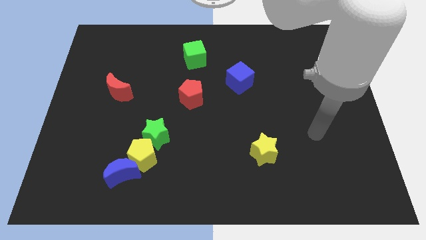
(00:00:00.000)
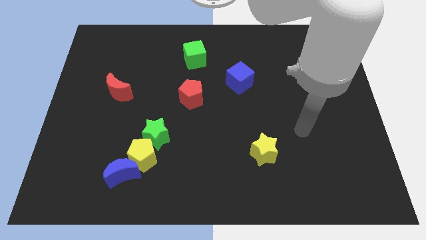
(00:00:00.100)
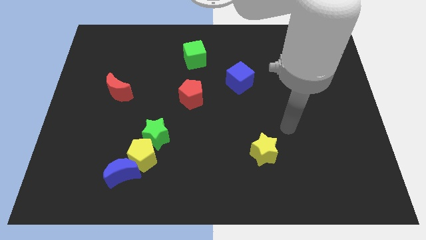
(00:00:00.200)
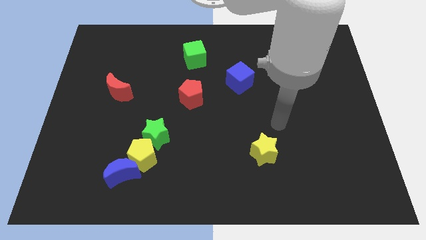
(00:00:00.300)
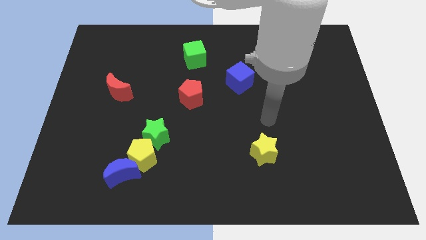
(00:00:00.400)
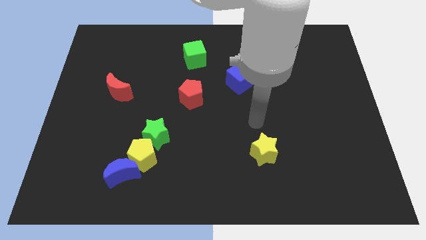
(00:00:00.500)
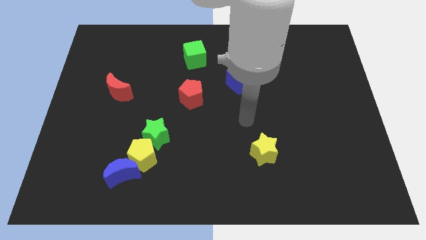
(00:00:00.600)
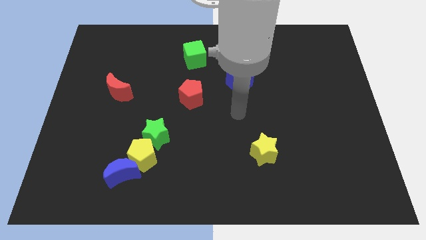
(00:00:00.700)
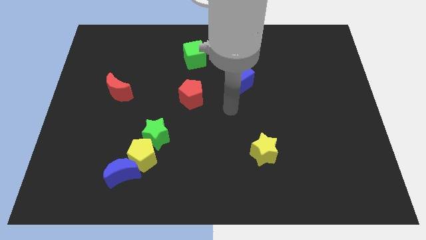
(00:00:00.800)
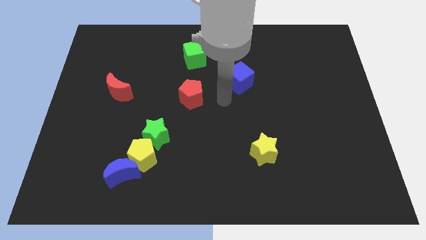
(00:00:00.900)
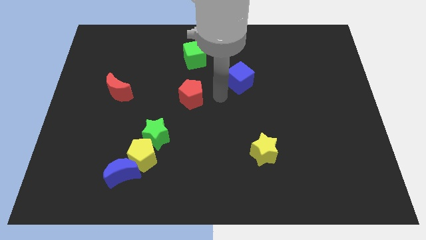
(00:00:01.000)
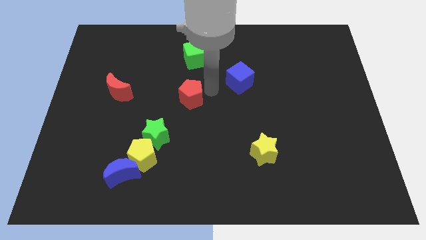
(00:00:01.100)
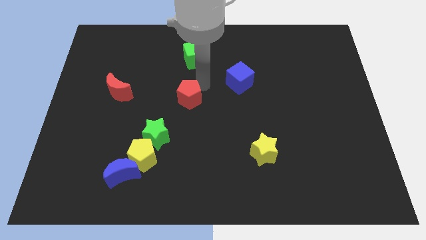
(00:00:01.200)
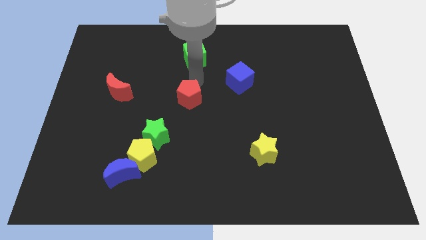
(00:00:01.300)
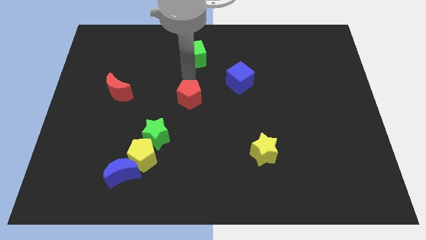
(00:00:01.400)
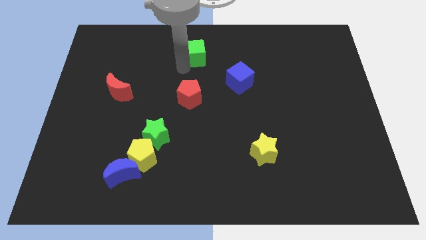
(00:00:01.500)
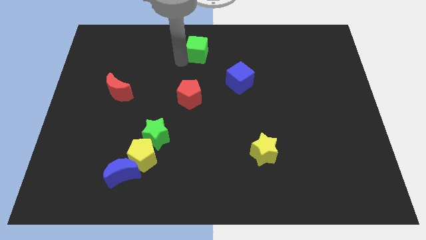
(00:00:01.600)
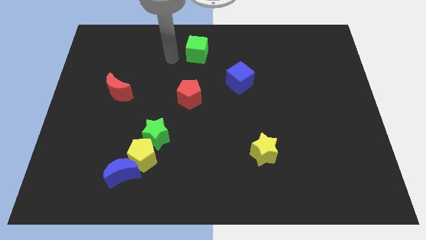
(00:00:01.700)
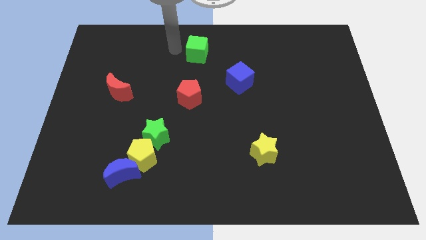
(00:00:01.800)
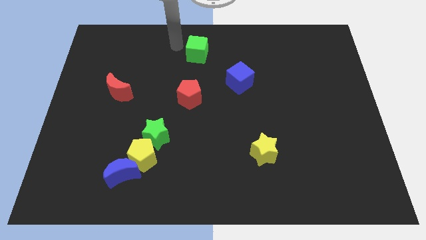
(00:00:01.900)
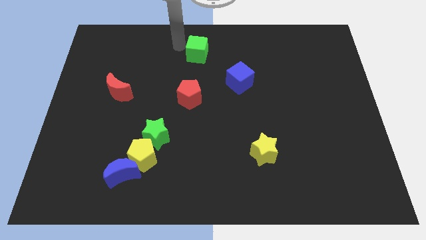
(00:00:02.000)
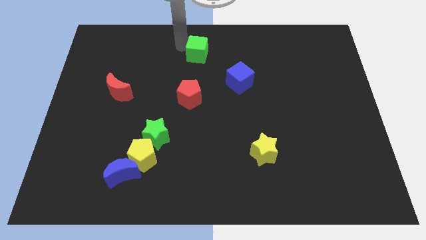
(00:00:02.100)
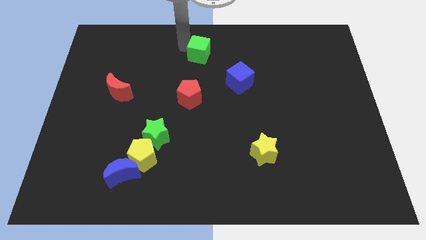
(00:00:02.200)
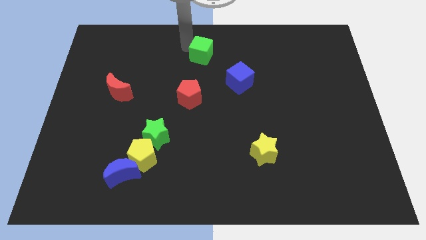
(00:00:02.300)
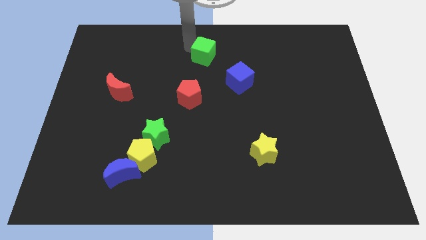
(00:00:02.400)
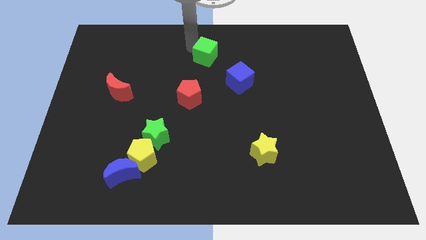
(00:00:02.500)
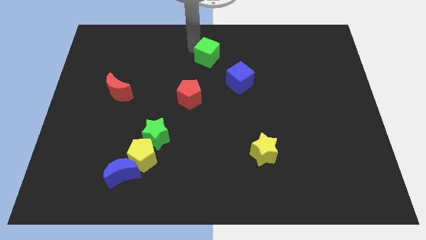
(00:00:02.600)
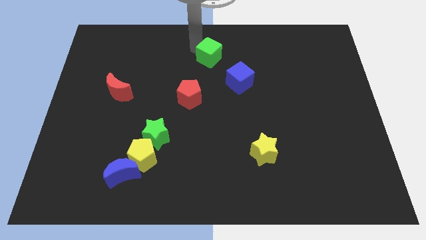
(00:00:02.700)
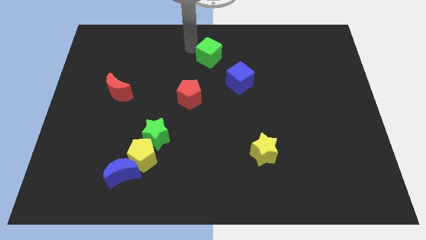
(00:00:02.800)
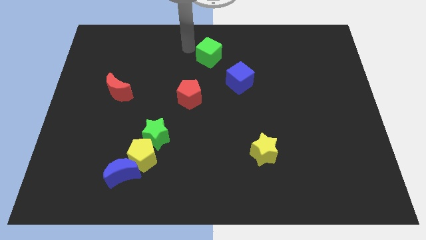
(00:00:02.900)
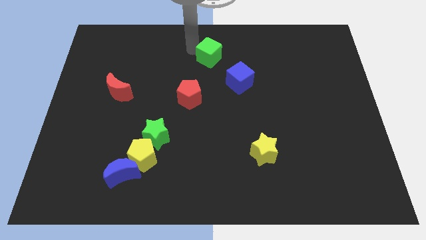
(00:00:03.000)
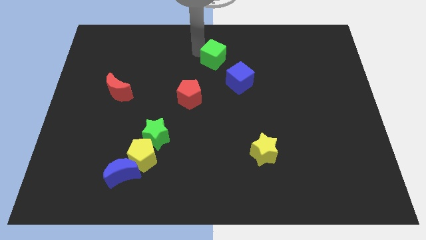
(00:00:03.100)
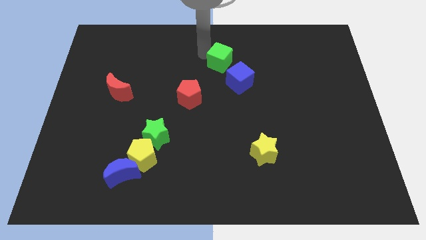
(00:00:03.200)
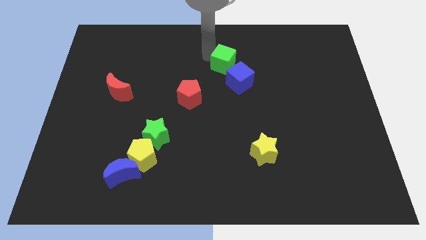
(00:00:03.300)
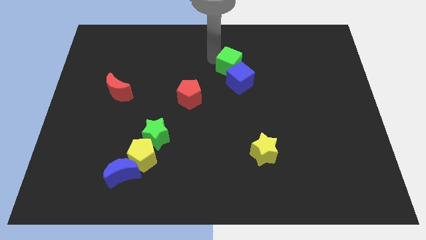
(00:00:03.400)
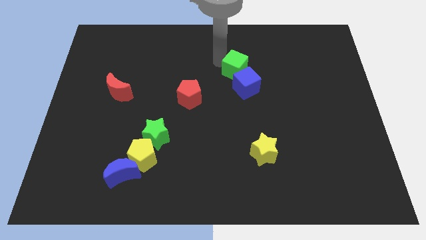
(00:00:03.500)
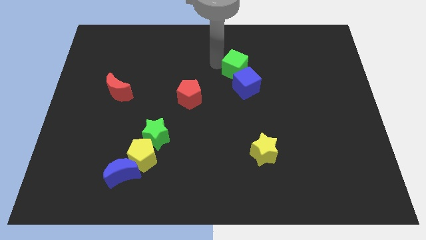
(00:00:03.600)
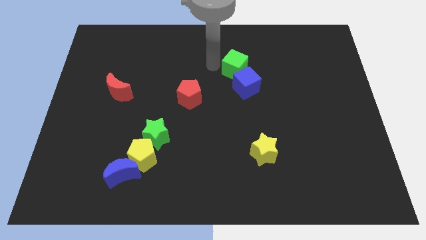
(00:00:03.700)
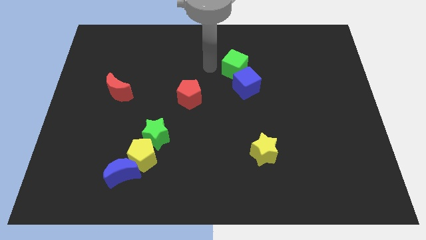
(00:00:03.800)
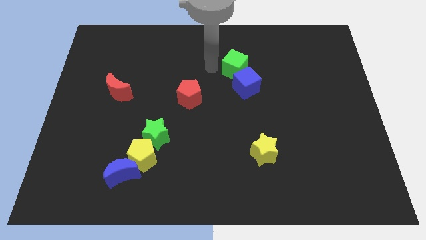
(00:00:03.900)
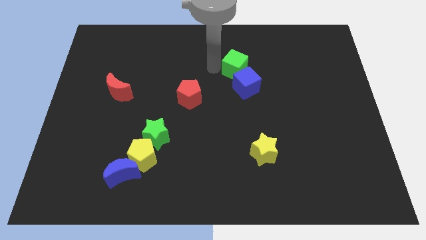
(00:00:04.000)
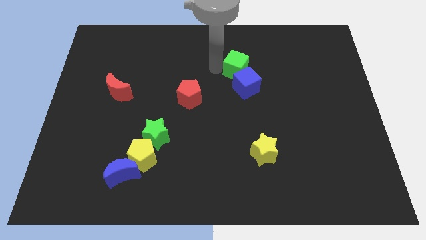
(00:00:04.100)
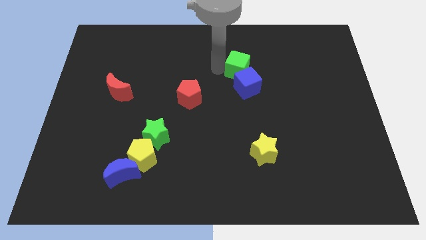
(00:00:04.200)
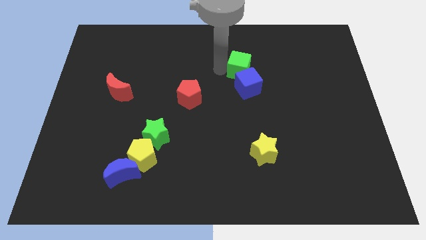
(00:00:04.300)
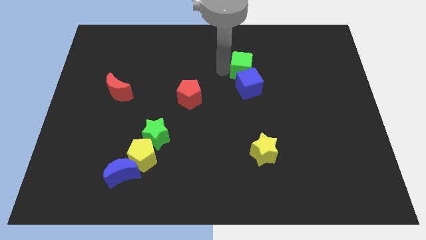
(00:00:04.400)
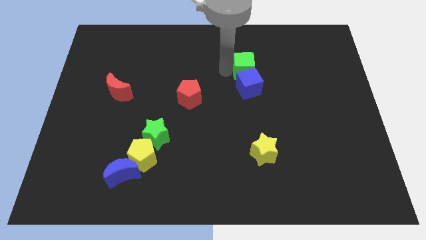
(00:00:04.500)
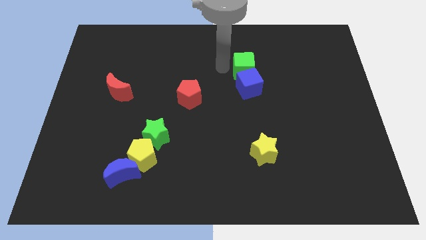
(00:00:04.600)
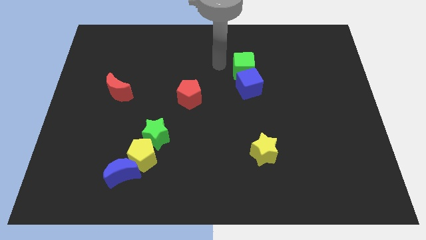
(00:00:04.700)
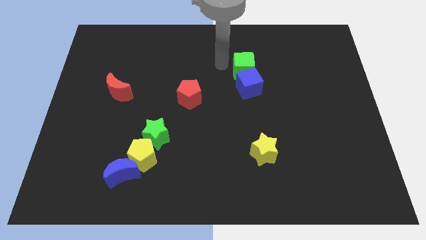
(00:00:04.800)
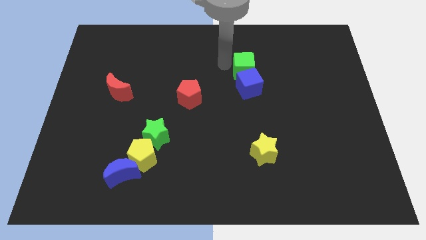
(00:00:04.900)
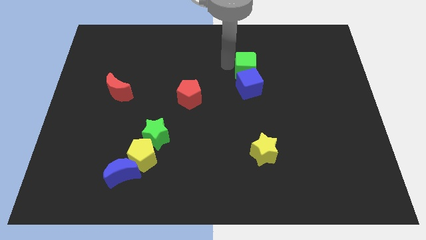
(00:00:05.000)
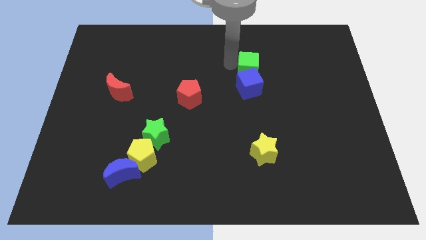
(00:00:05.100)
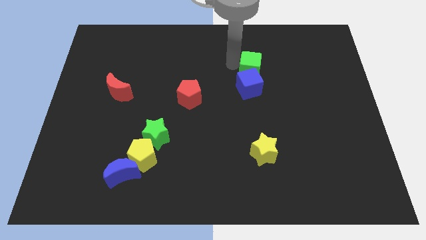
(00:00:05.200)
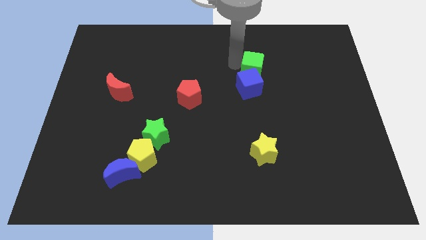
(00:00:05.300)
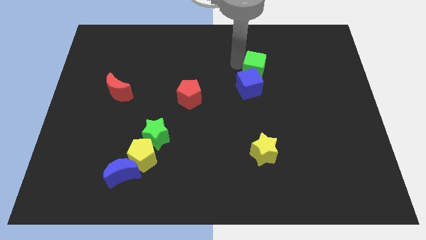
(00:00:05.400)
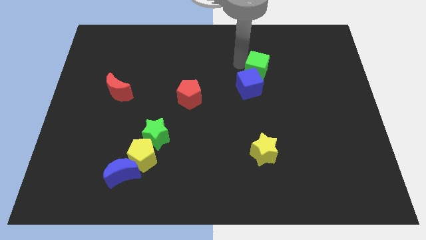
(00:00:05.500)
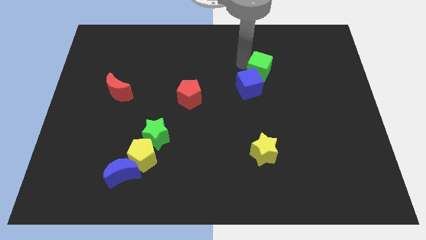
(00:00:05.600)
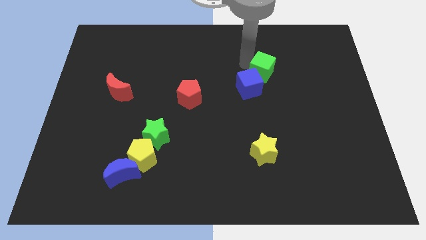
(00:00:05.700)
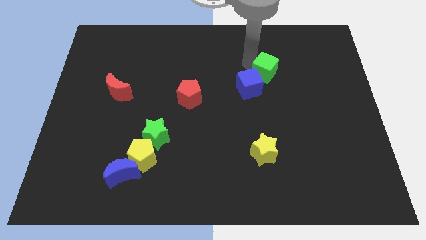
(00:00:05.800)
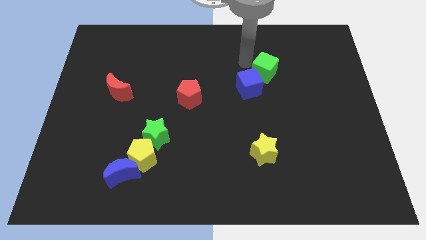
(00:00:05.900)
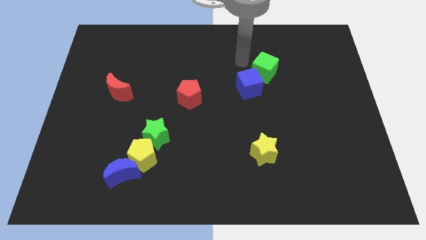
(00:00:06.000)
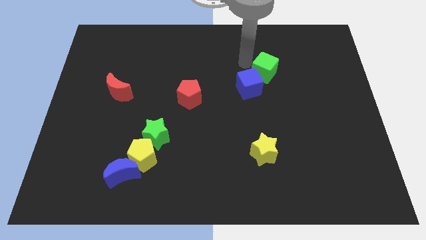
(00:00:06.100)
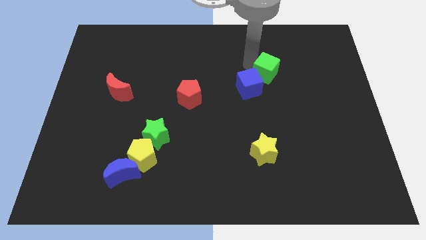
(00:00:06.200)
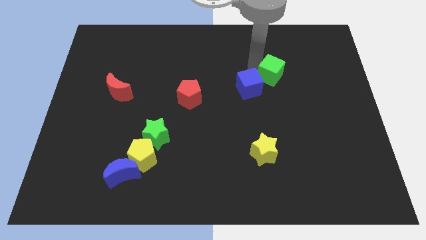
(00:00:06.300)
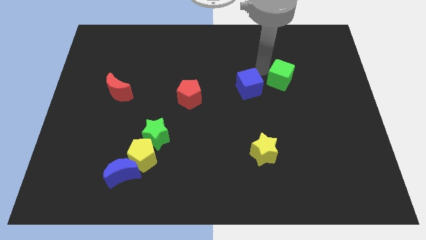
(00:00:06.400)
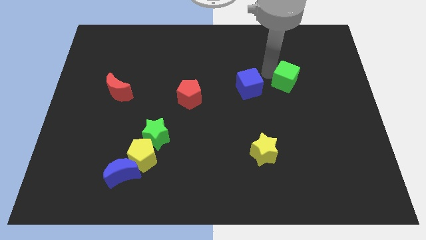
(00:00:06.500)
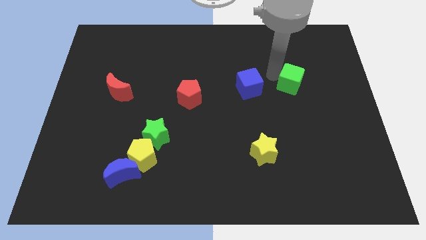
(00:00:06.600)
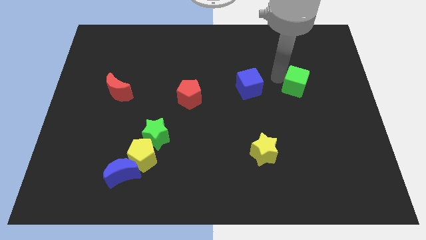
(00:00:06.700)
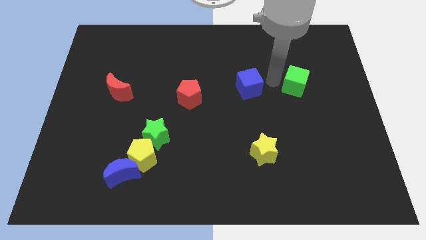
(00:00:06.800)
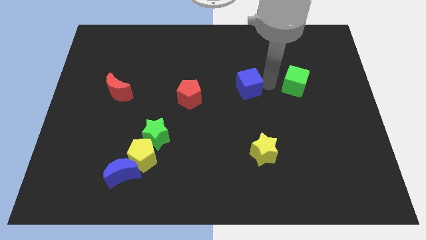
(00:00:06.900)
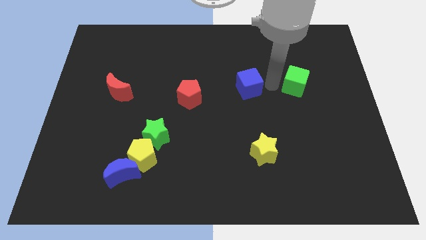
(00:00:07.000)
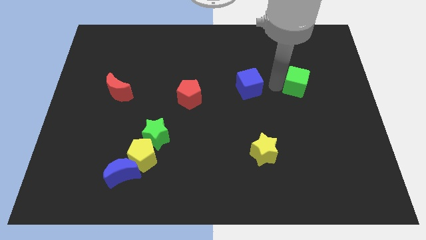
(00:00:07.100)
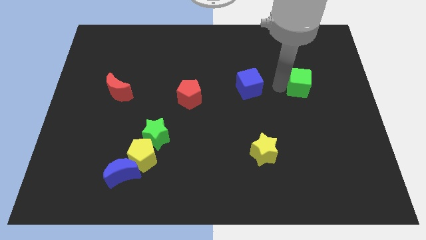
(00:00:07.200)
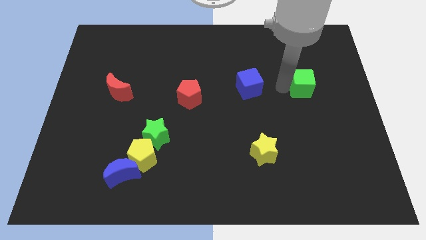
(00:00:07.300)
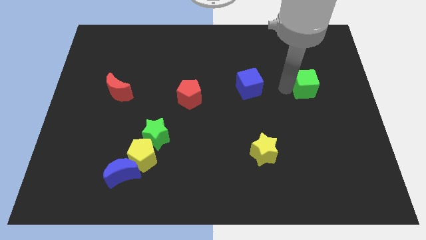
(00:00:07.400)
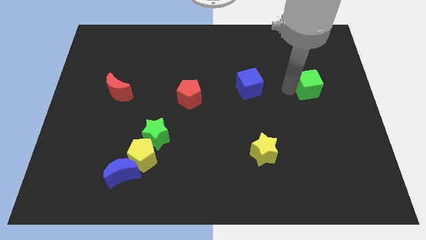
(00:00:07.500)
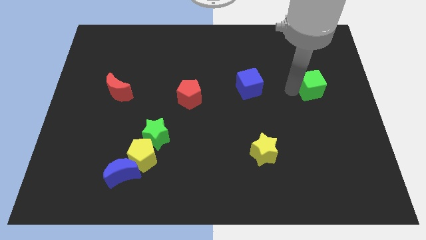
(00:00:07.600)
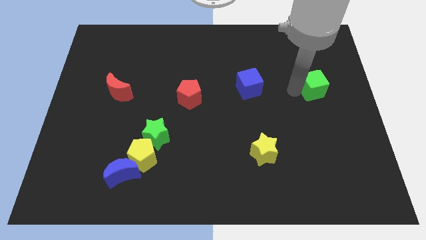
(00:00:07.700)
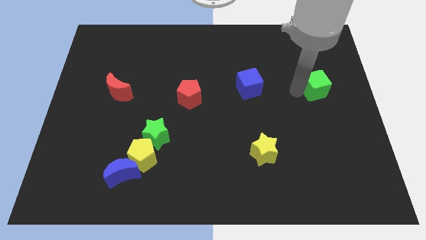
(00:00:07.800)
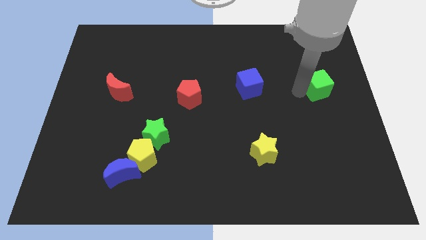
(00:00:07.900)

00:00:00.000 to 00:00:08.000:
slide the green cube to the right side of the board

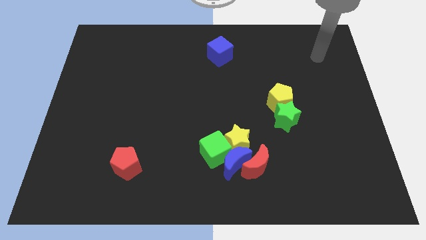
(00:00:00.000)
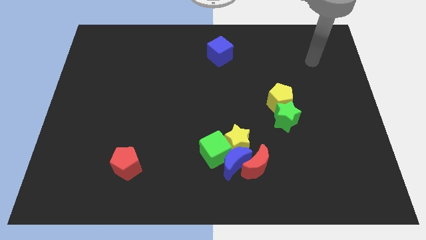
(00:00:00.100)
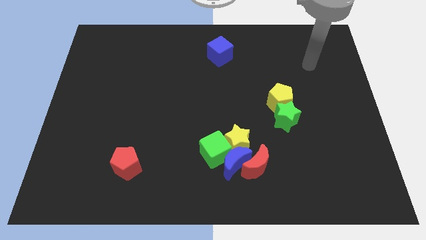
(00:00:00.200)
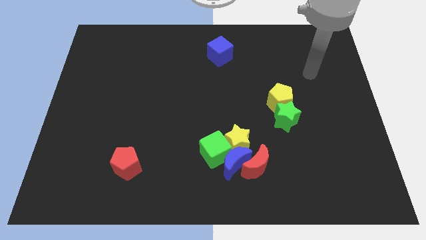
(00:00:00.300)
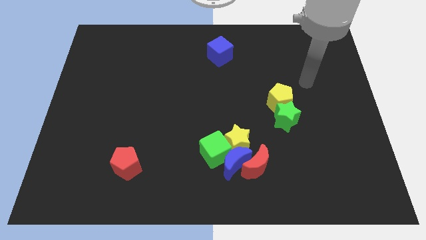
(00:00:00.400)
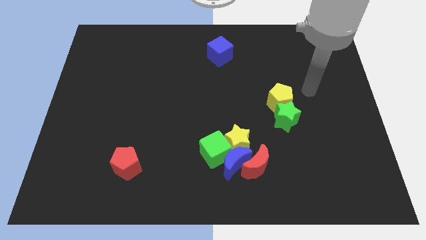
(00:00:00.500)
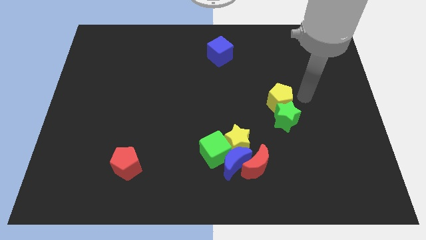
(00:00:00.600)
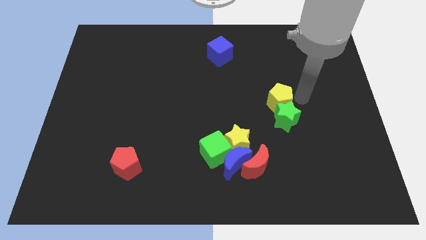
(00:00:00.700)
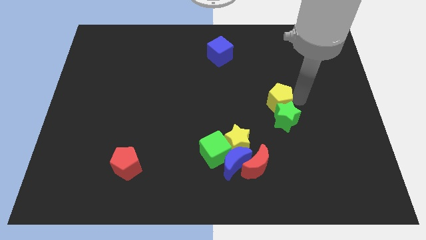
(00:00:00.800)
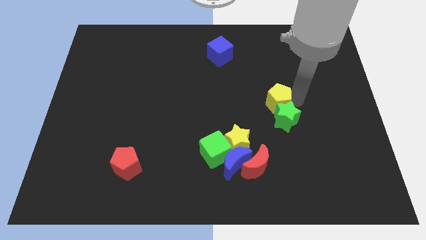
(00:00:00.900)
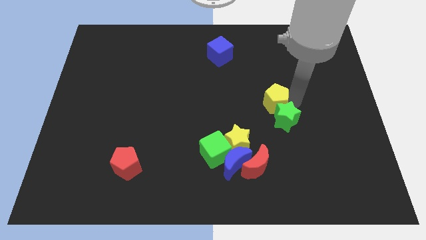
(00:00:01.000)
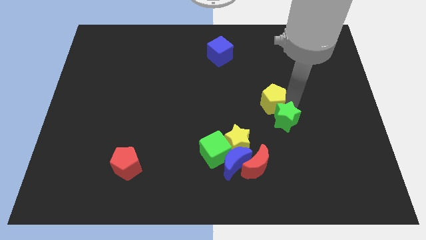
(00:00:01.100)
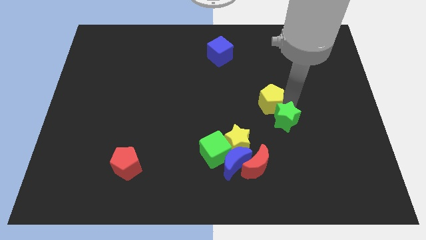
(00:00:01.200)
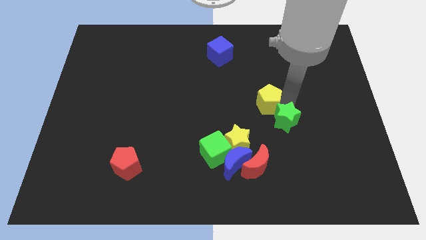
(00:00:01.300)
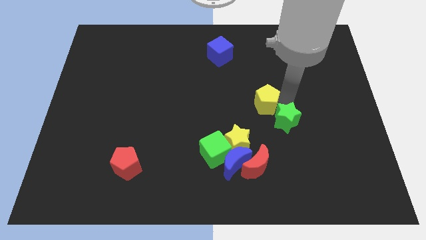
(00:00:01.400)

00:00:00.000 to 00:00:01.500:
slide the yellow pentagon to the center of the board
